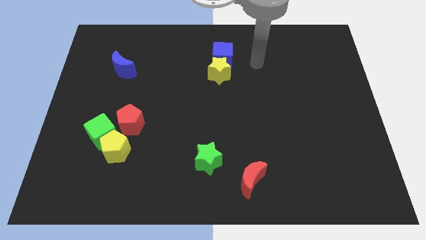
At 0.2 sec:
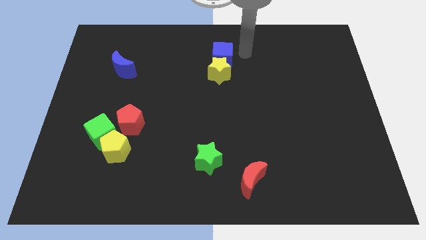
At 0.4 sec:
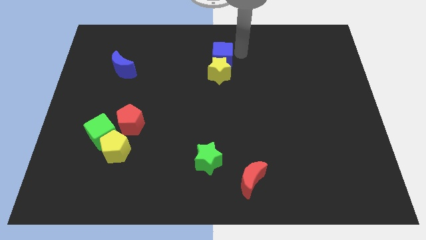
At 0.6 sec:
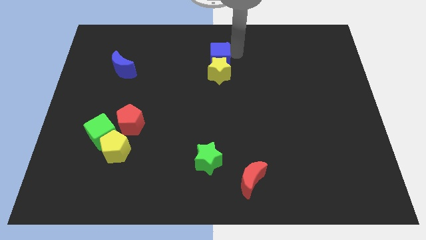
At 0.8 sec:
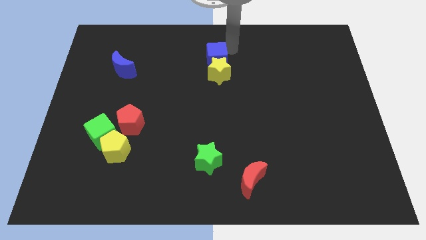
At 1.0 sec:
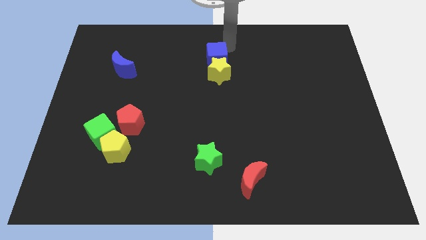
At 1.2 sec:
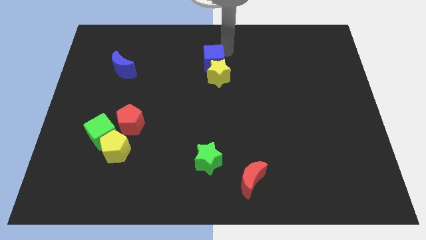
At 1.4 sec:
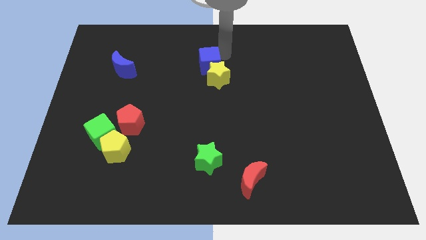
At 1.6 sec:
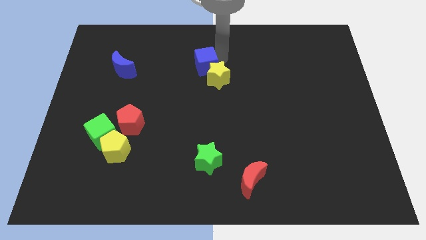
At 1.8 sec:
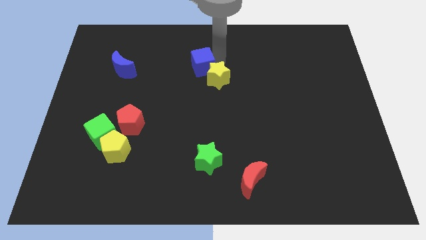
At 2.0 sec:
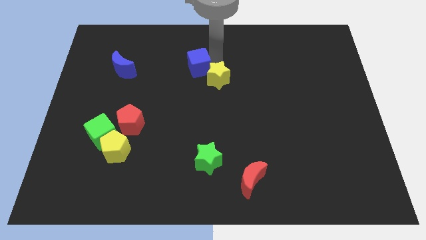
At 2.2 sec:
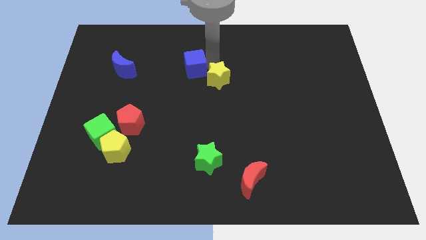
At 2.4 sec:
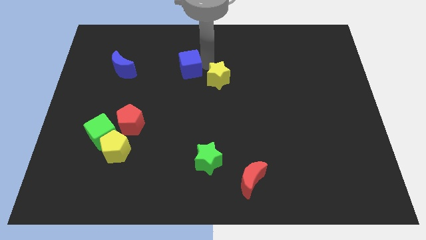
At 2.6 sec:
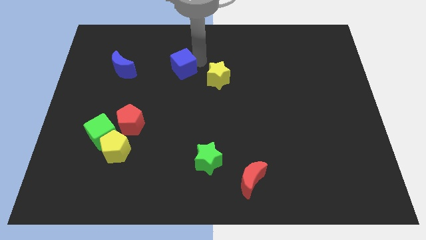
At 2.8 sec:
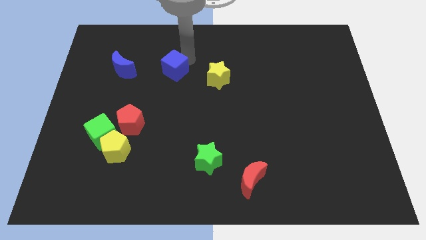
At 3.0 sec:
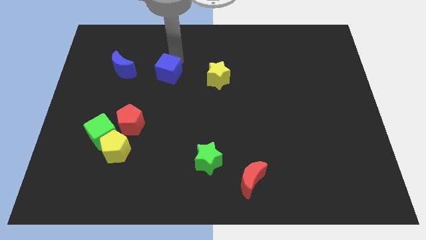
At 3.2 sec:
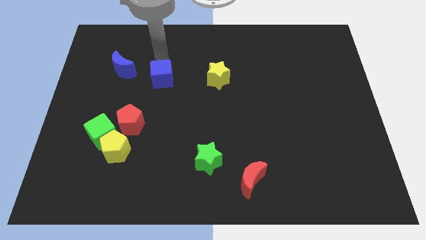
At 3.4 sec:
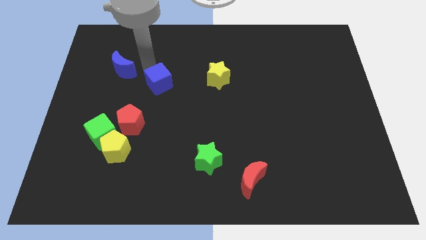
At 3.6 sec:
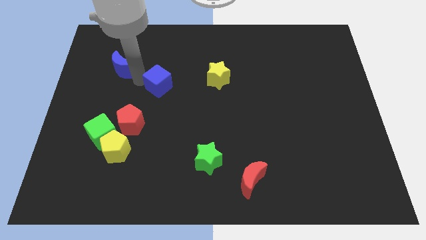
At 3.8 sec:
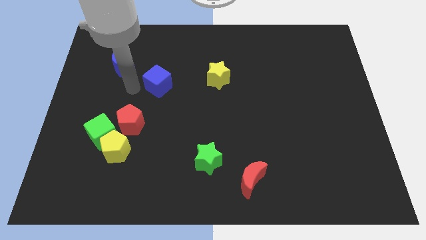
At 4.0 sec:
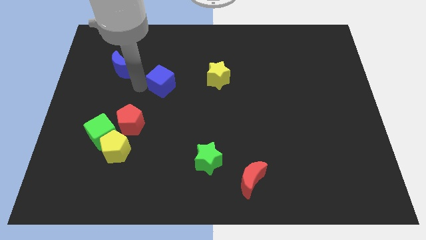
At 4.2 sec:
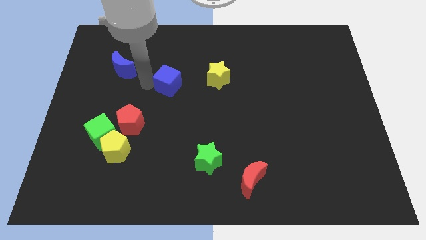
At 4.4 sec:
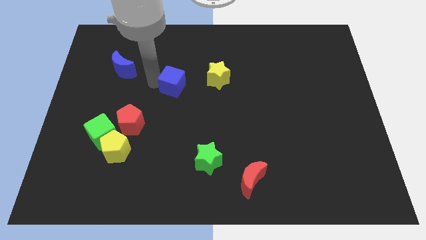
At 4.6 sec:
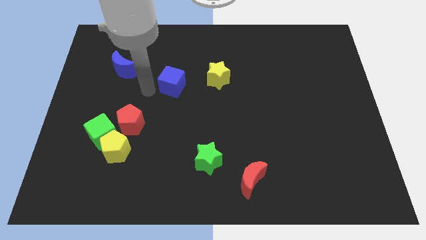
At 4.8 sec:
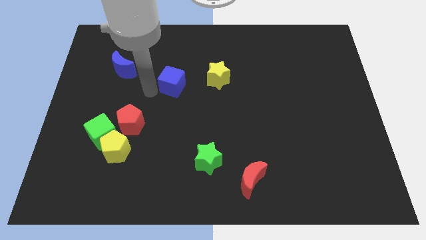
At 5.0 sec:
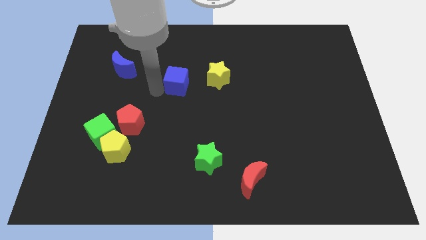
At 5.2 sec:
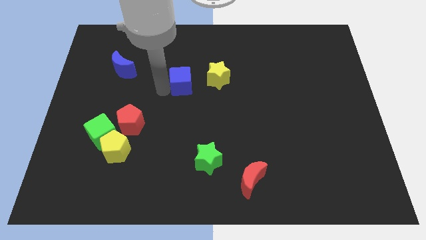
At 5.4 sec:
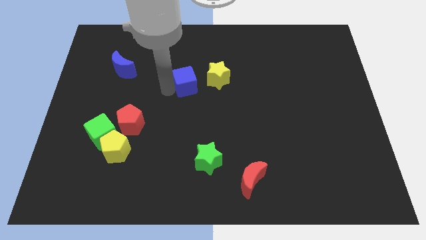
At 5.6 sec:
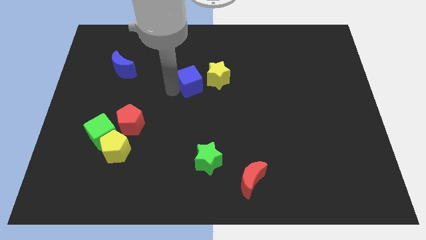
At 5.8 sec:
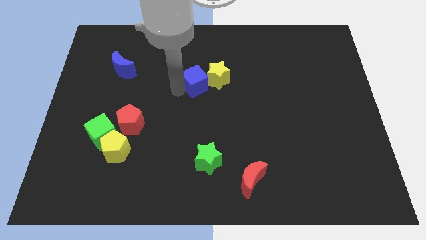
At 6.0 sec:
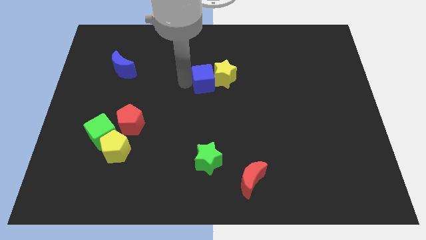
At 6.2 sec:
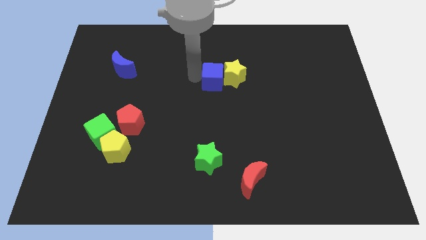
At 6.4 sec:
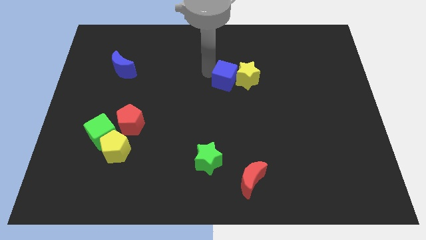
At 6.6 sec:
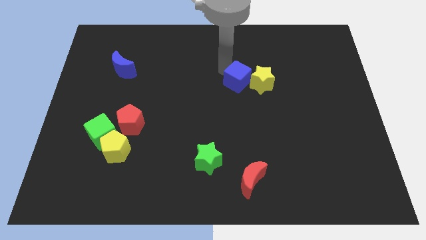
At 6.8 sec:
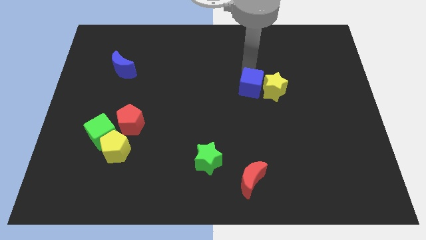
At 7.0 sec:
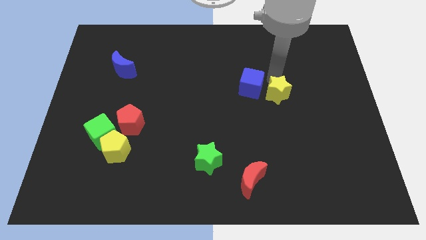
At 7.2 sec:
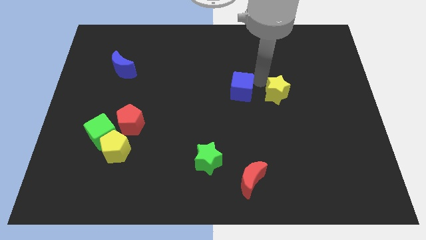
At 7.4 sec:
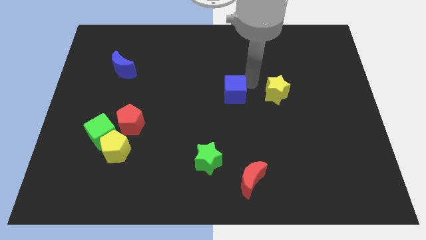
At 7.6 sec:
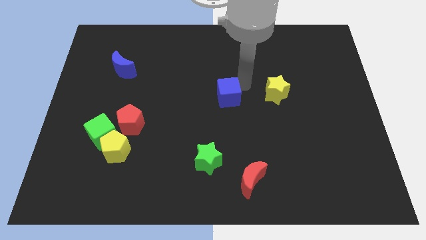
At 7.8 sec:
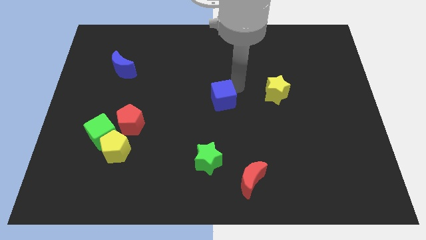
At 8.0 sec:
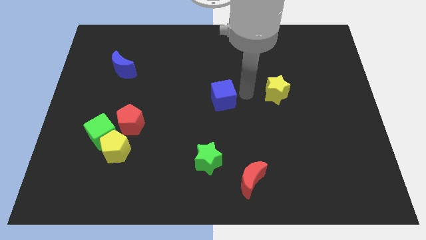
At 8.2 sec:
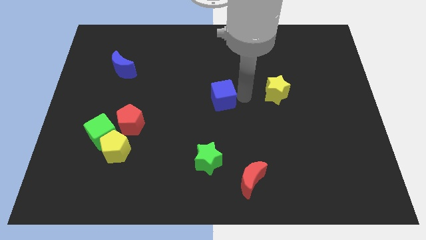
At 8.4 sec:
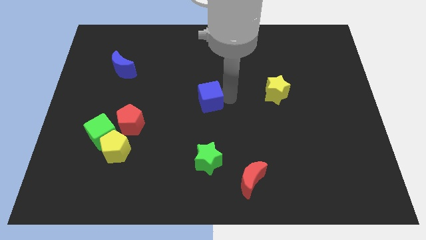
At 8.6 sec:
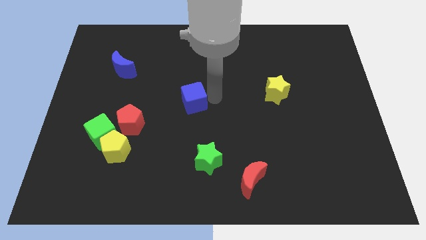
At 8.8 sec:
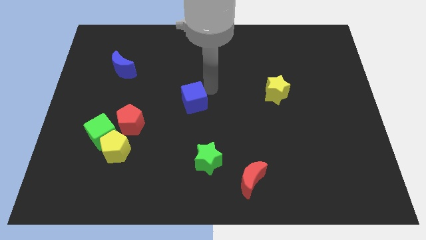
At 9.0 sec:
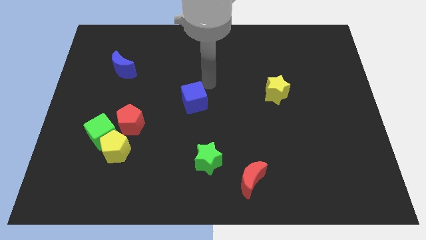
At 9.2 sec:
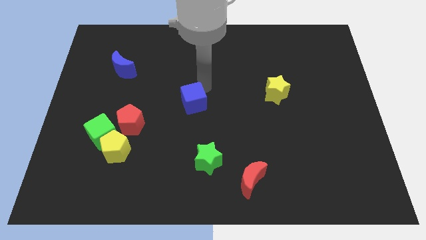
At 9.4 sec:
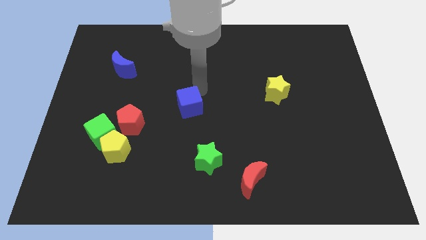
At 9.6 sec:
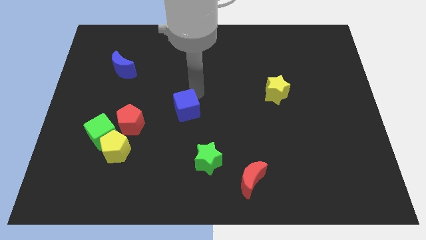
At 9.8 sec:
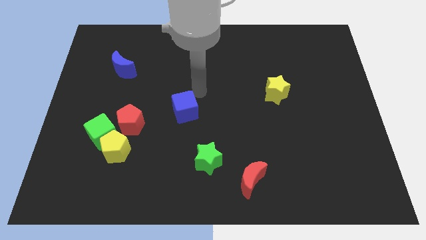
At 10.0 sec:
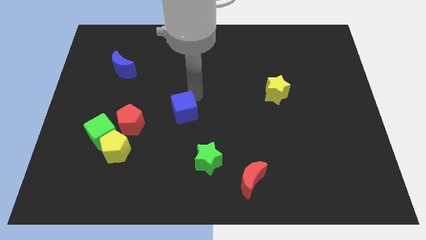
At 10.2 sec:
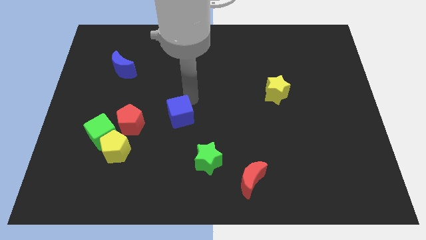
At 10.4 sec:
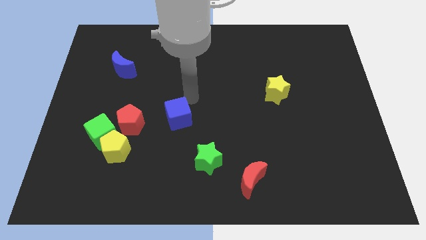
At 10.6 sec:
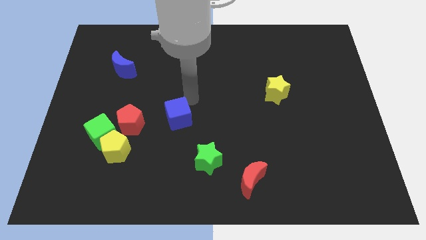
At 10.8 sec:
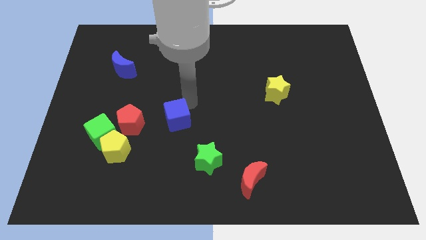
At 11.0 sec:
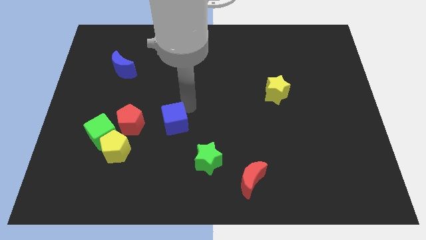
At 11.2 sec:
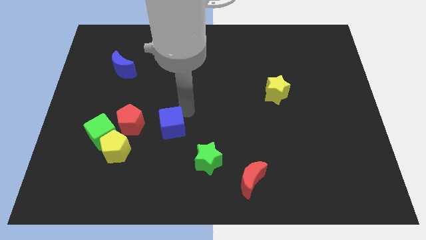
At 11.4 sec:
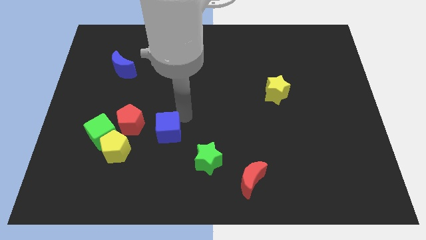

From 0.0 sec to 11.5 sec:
move the blue cube to the right side of the yellow pentagon

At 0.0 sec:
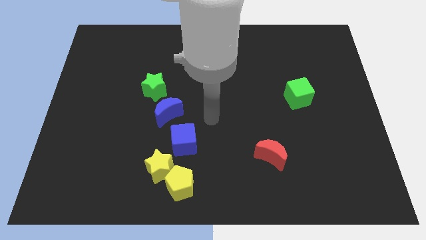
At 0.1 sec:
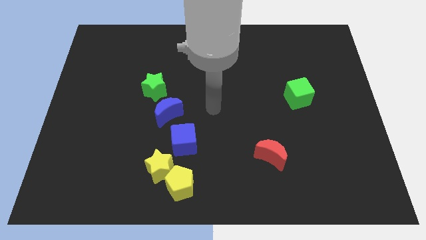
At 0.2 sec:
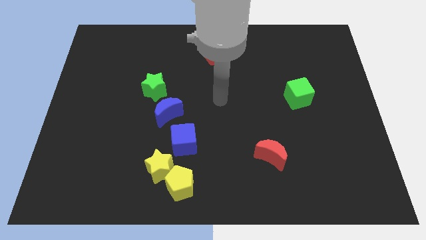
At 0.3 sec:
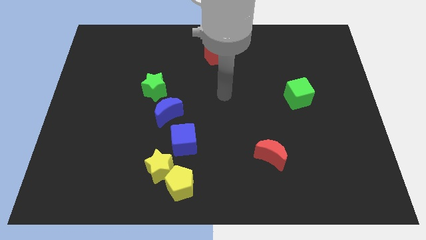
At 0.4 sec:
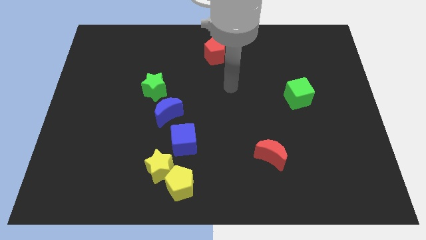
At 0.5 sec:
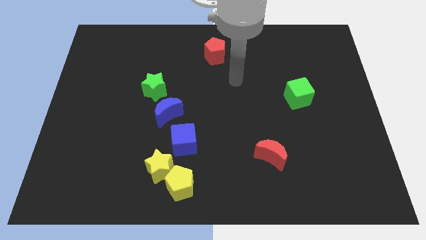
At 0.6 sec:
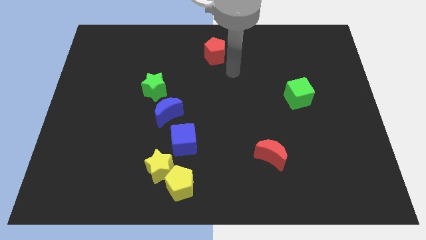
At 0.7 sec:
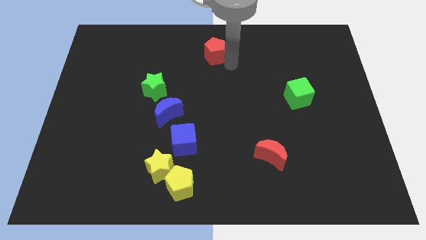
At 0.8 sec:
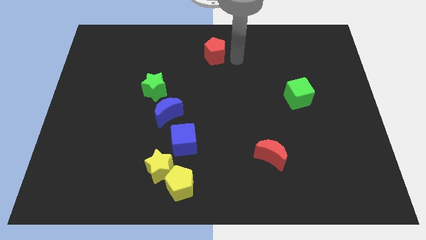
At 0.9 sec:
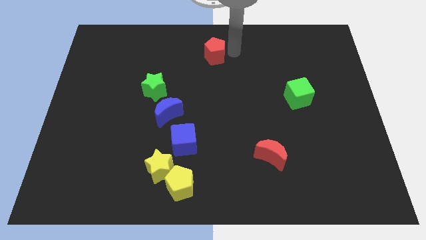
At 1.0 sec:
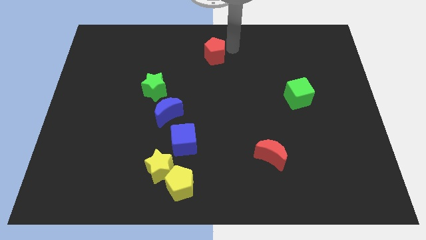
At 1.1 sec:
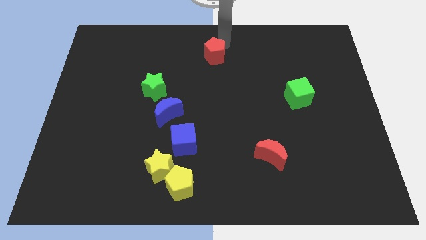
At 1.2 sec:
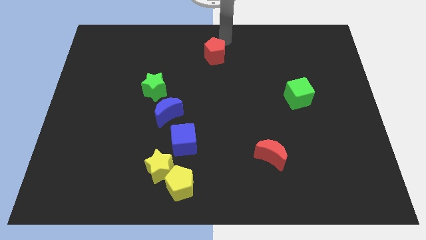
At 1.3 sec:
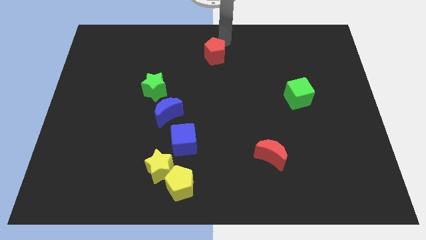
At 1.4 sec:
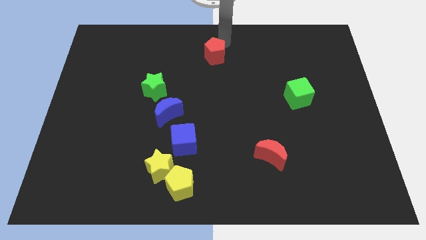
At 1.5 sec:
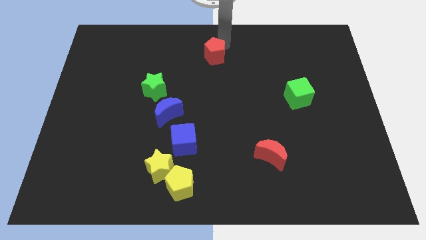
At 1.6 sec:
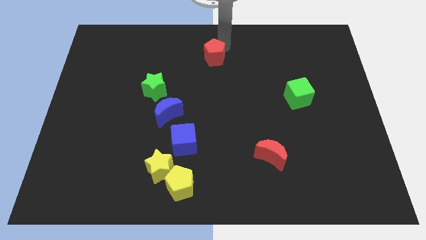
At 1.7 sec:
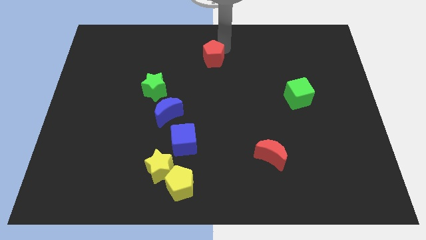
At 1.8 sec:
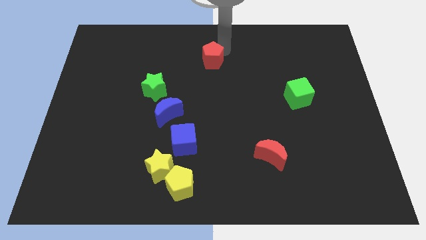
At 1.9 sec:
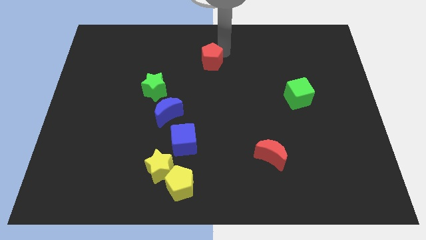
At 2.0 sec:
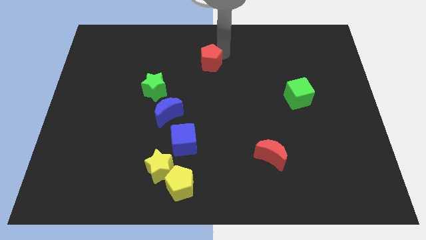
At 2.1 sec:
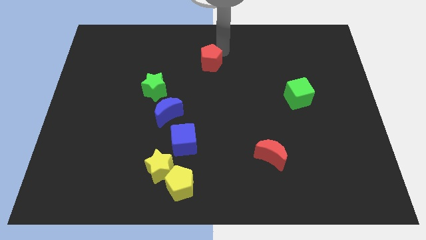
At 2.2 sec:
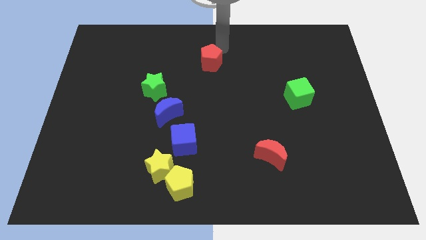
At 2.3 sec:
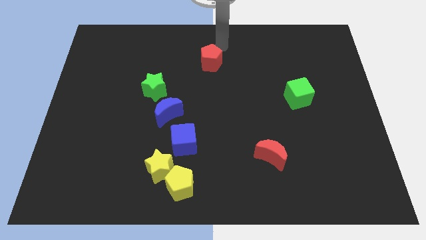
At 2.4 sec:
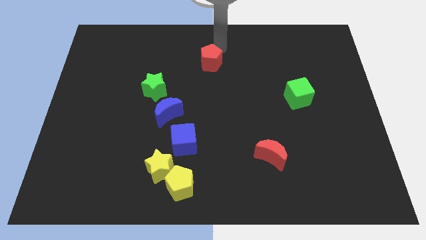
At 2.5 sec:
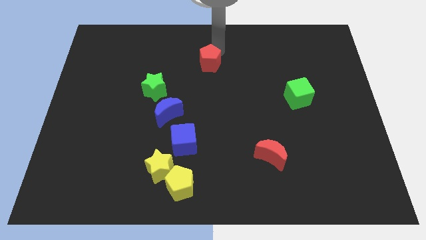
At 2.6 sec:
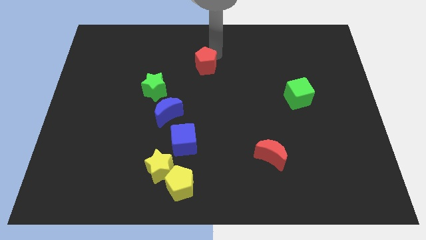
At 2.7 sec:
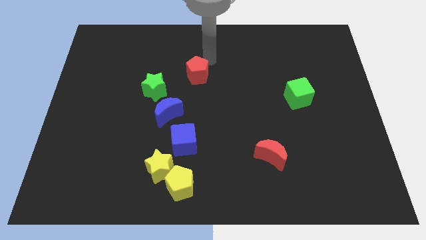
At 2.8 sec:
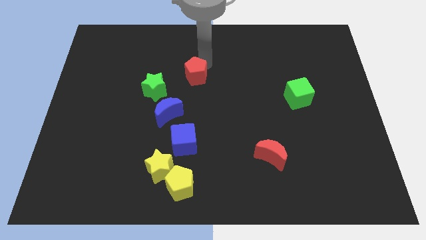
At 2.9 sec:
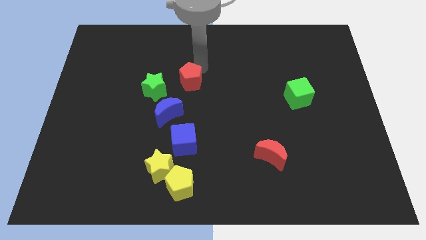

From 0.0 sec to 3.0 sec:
slide the red pentagon diagonally up and to the right of the blue moon
